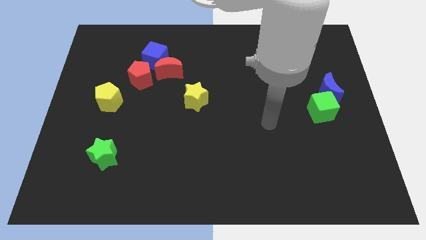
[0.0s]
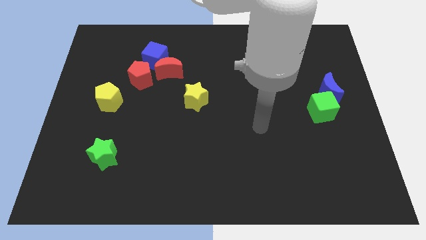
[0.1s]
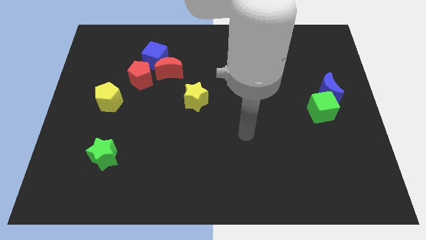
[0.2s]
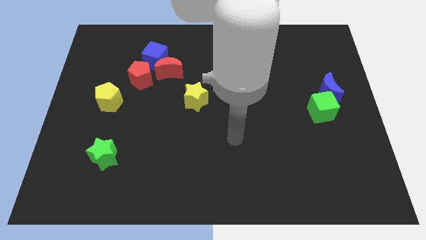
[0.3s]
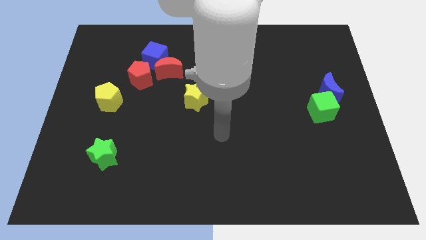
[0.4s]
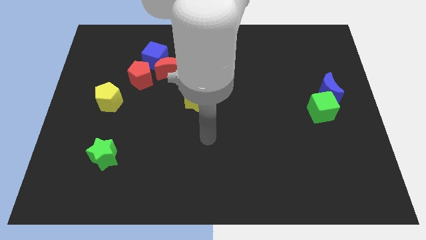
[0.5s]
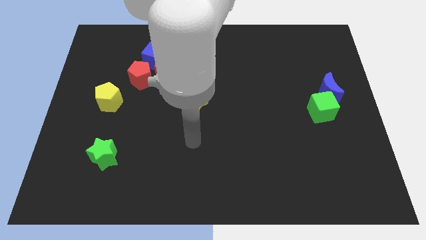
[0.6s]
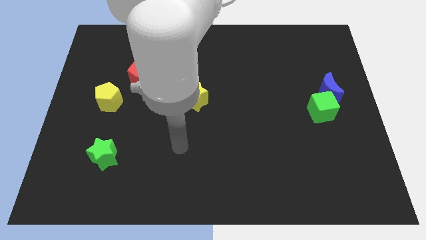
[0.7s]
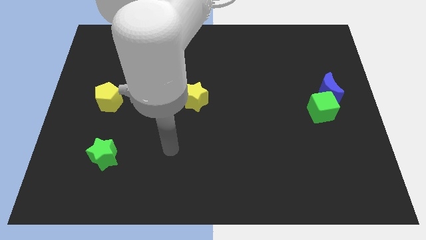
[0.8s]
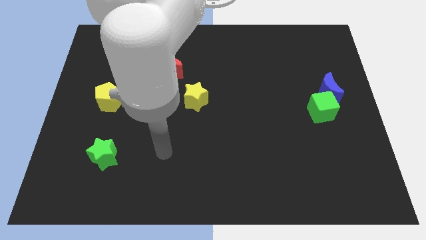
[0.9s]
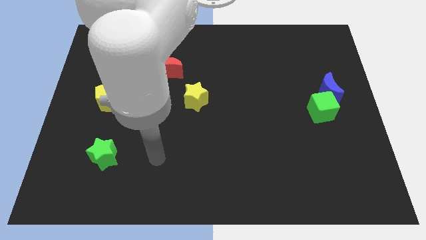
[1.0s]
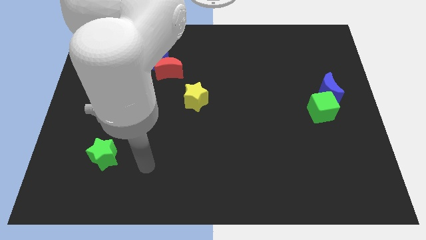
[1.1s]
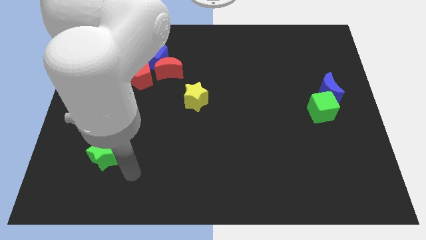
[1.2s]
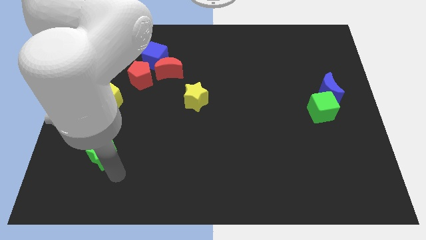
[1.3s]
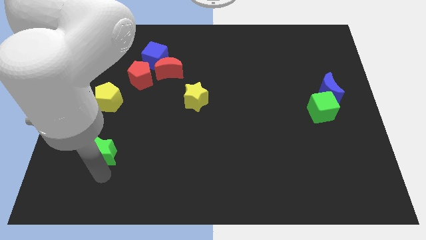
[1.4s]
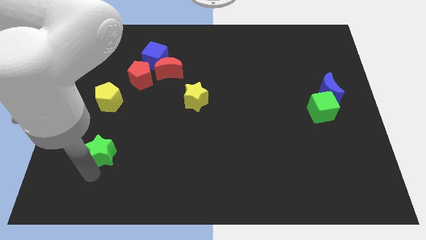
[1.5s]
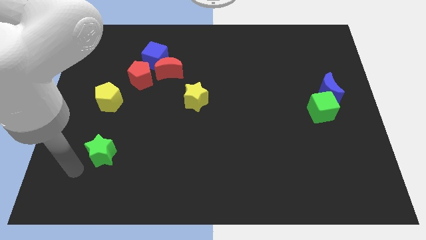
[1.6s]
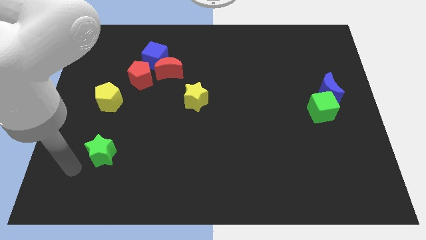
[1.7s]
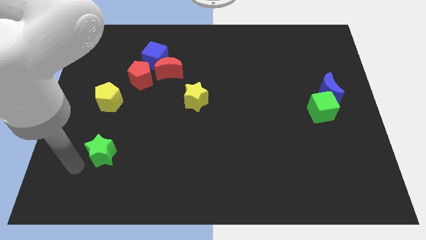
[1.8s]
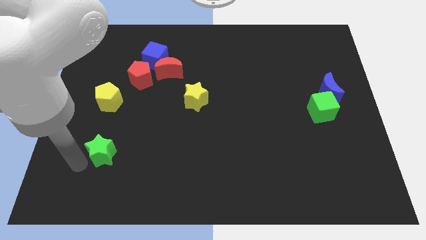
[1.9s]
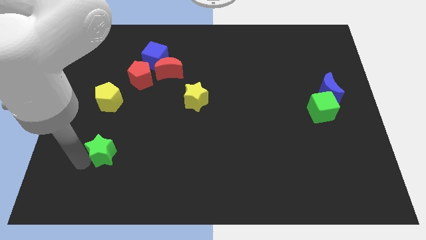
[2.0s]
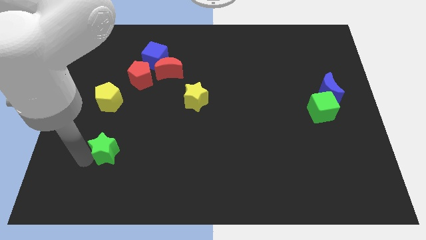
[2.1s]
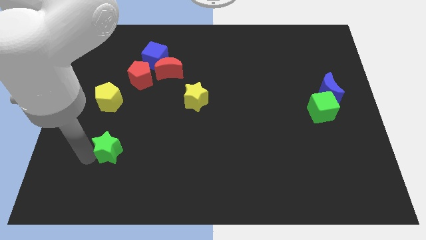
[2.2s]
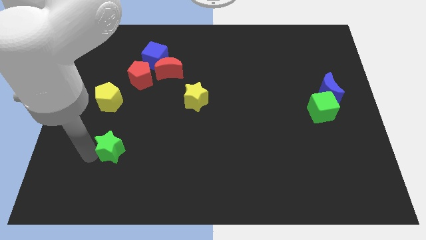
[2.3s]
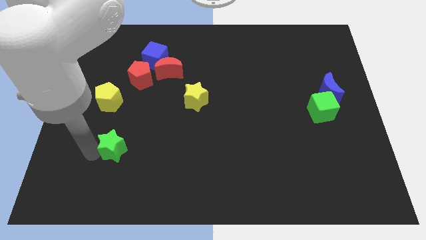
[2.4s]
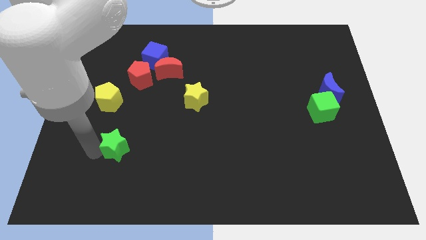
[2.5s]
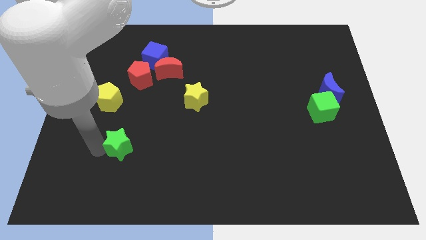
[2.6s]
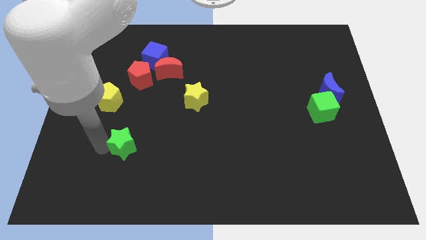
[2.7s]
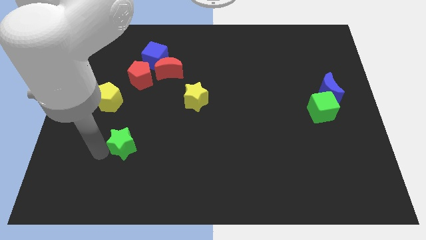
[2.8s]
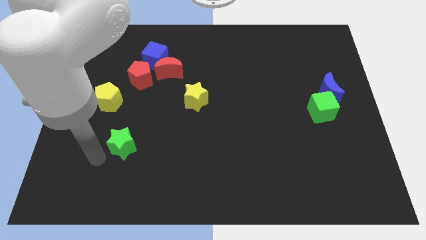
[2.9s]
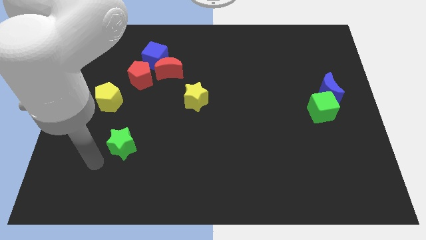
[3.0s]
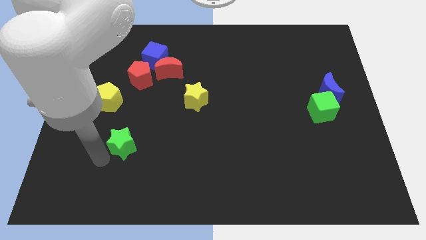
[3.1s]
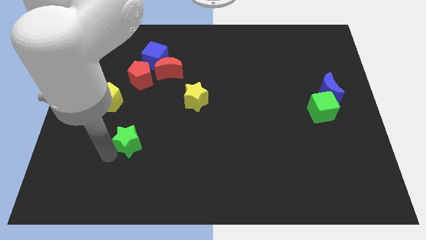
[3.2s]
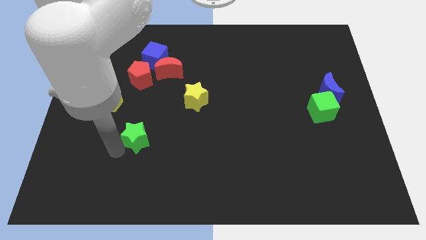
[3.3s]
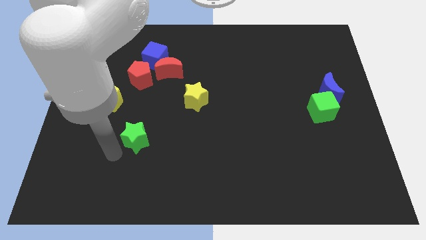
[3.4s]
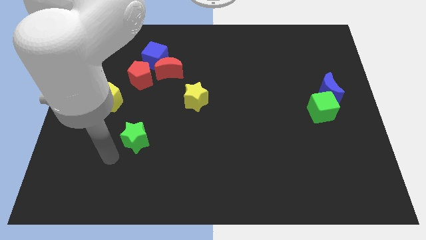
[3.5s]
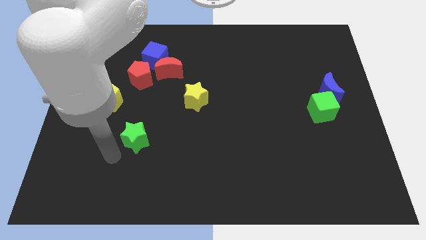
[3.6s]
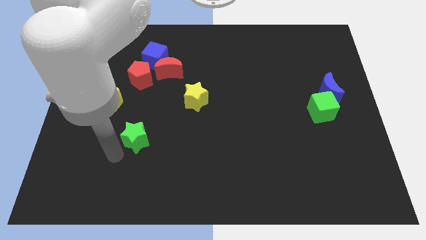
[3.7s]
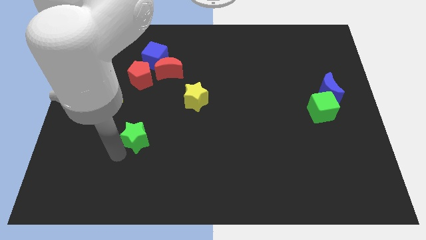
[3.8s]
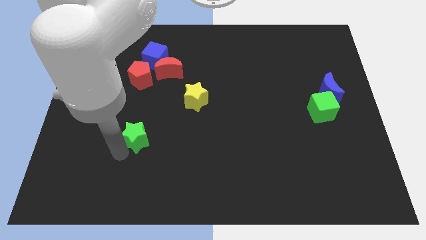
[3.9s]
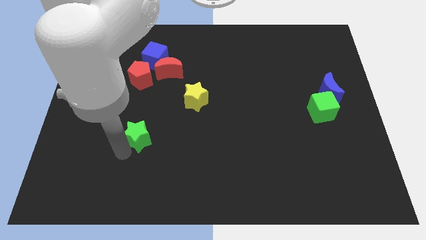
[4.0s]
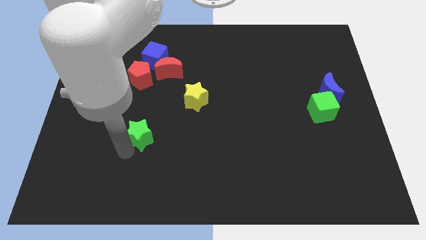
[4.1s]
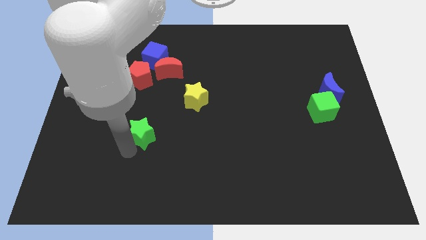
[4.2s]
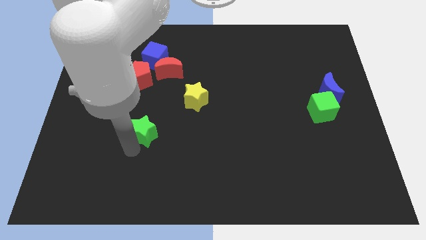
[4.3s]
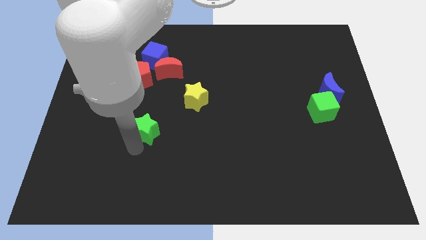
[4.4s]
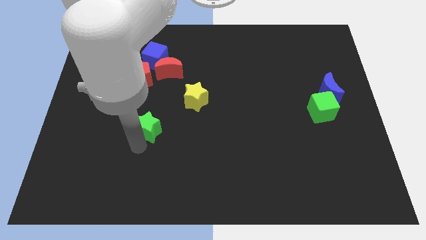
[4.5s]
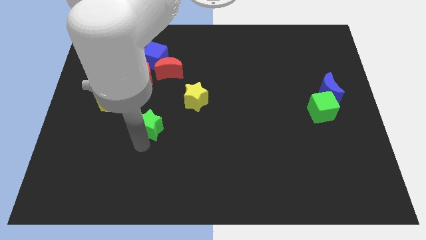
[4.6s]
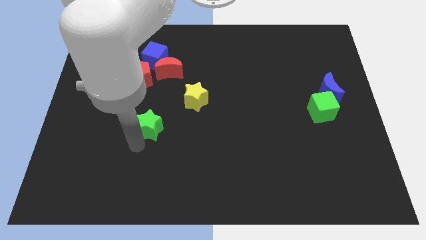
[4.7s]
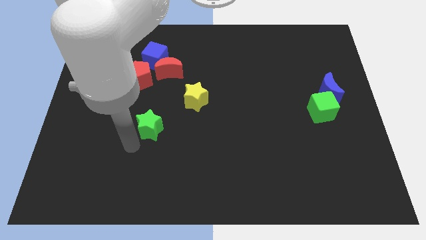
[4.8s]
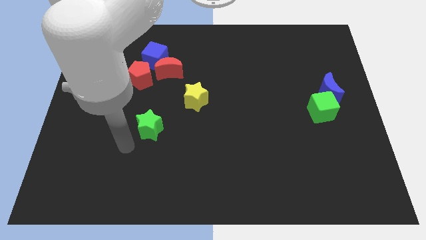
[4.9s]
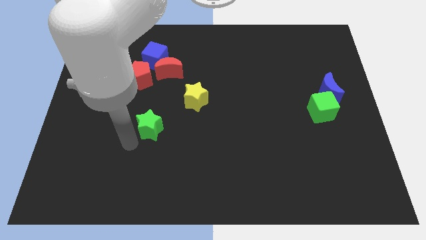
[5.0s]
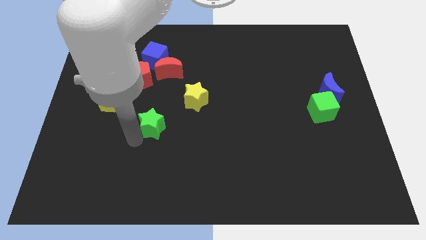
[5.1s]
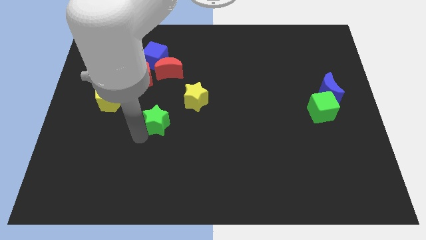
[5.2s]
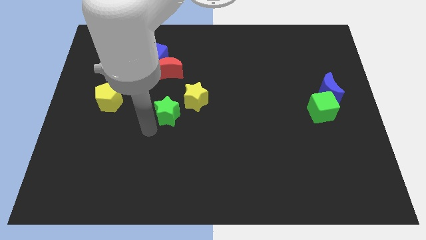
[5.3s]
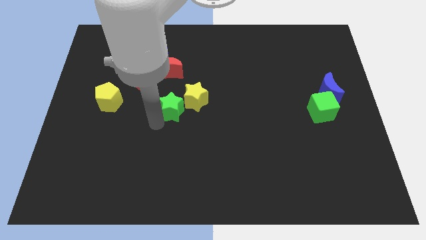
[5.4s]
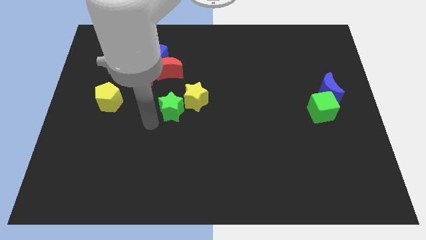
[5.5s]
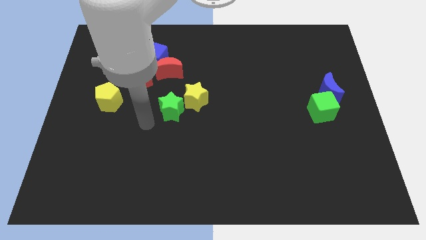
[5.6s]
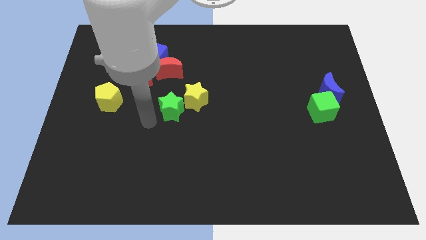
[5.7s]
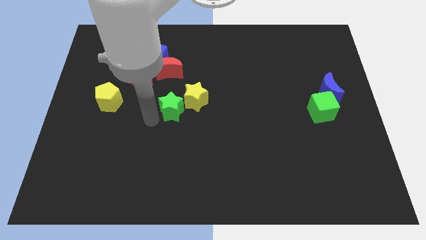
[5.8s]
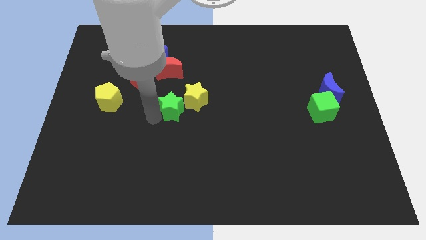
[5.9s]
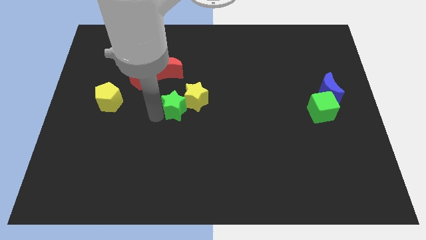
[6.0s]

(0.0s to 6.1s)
push the green star close to the yellow star

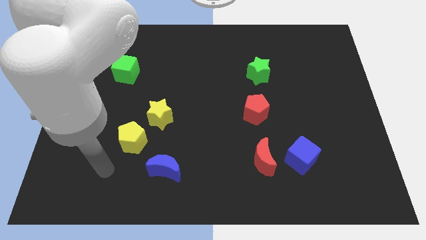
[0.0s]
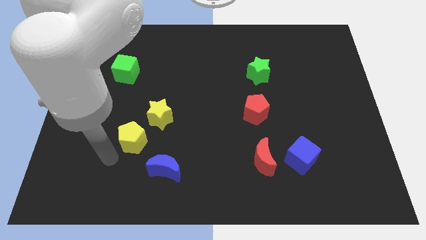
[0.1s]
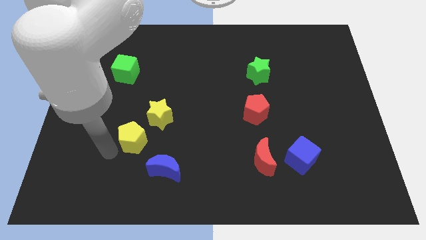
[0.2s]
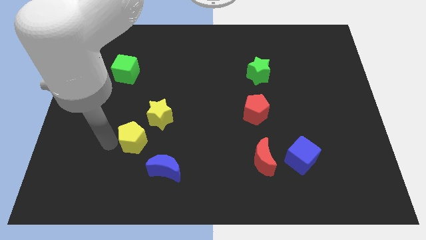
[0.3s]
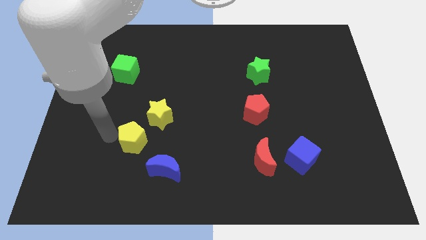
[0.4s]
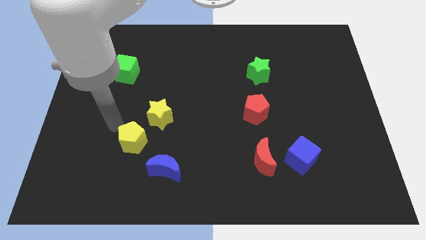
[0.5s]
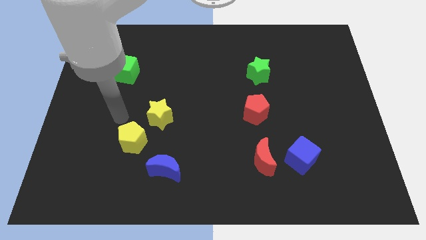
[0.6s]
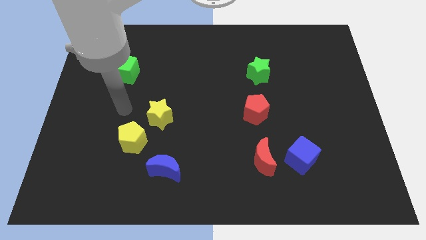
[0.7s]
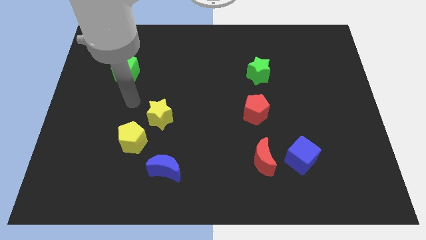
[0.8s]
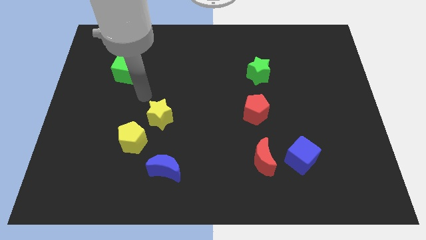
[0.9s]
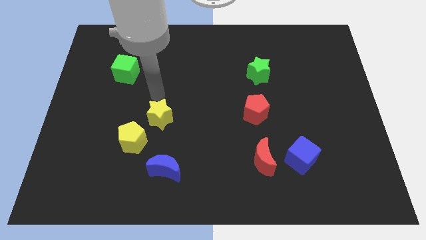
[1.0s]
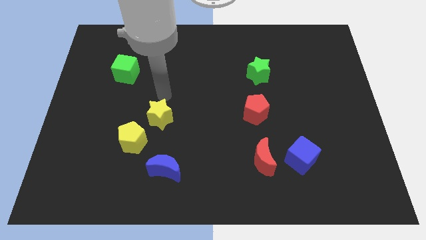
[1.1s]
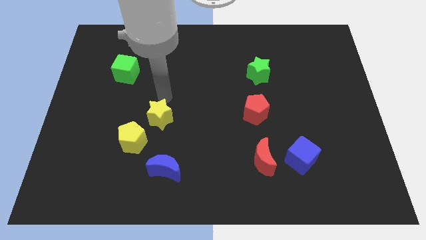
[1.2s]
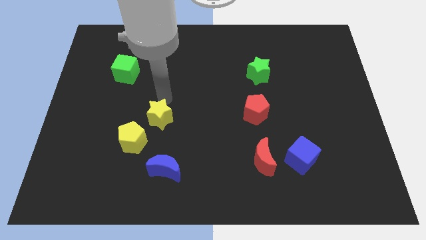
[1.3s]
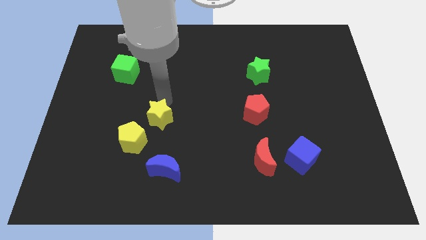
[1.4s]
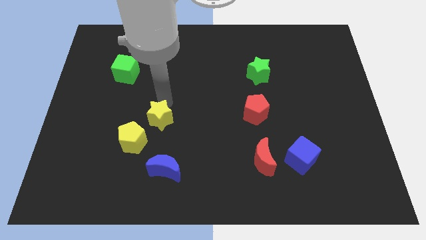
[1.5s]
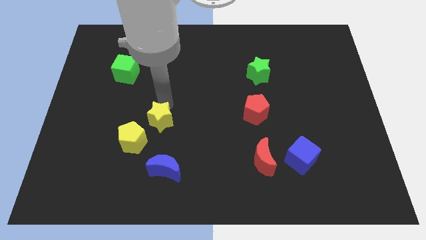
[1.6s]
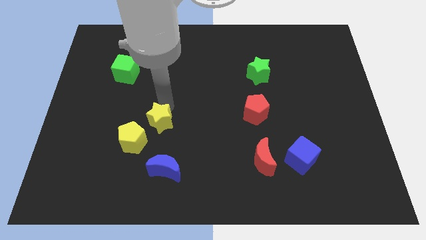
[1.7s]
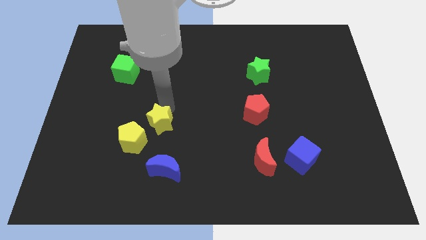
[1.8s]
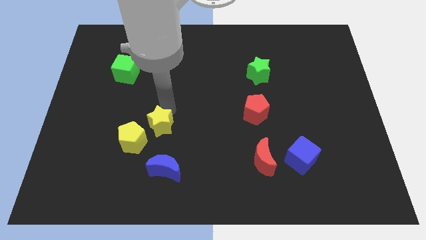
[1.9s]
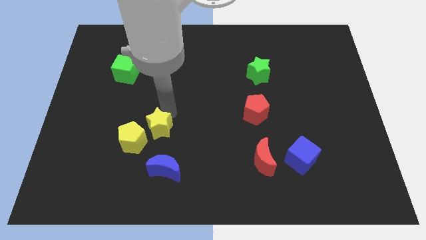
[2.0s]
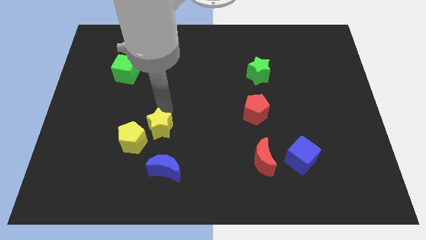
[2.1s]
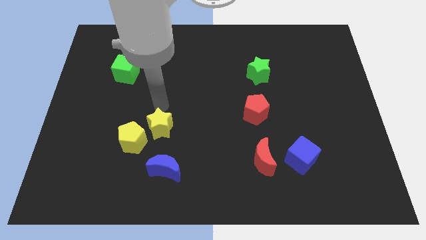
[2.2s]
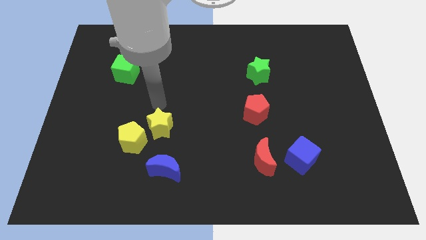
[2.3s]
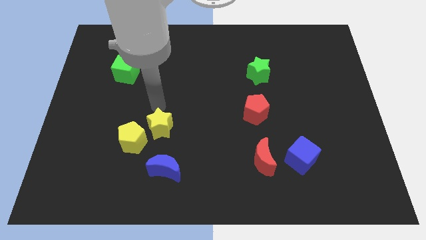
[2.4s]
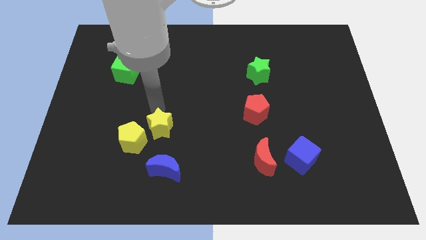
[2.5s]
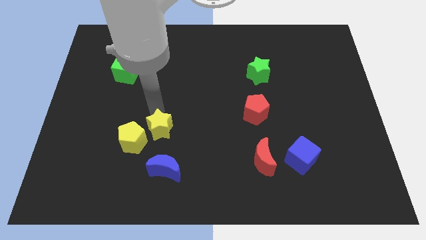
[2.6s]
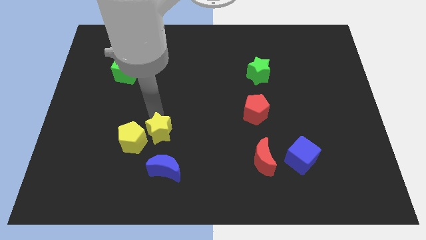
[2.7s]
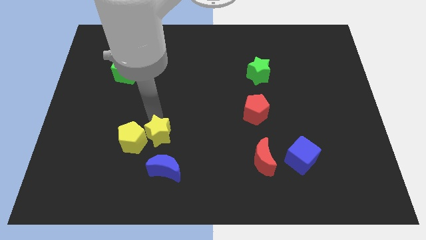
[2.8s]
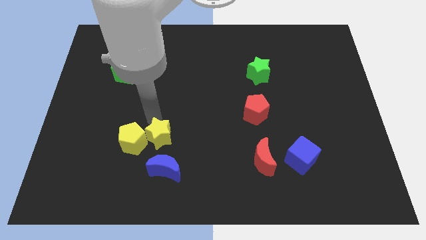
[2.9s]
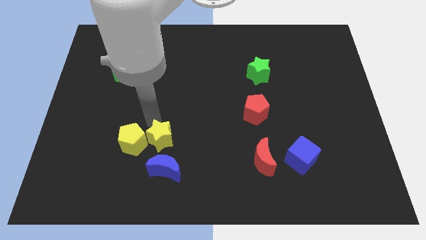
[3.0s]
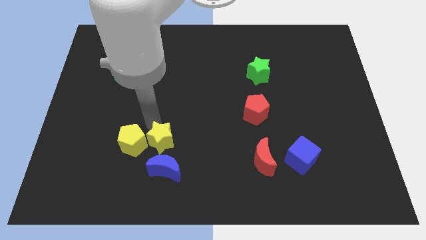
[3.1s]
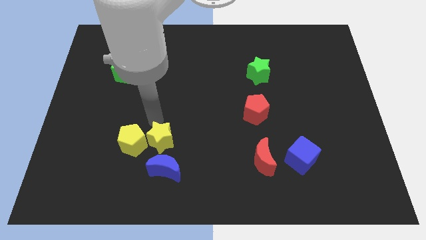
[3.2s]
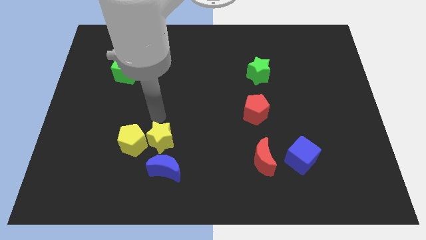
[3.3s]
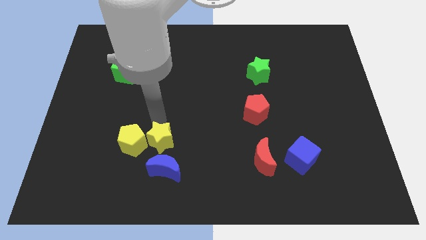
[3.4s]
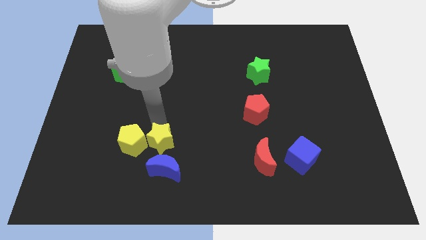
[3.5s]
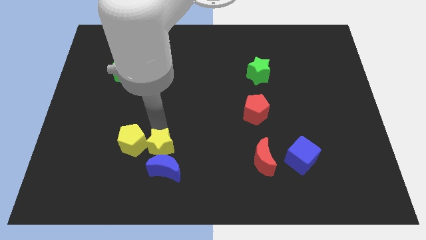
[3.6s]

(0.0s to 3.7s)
move the yellow star to the blue moon
